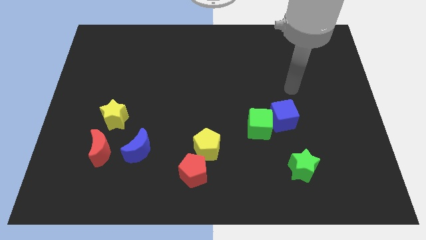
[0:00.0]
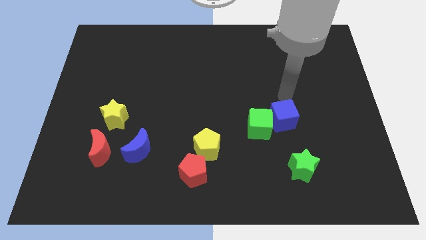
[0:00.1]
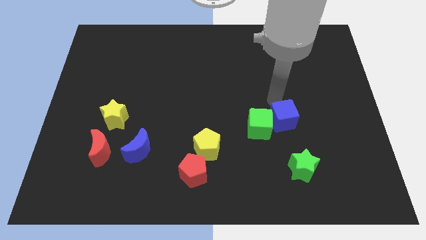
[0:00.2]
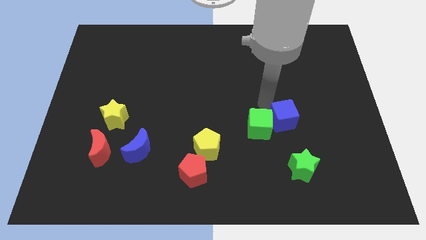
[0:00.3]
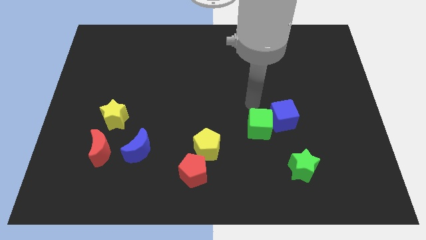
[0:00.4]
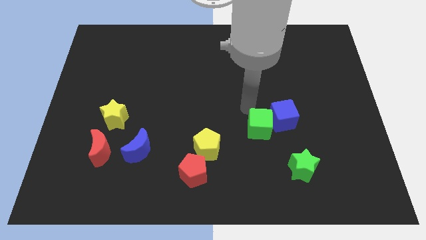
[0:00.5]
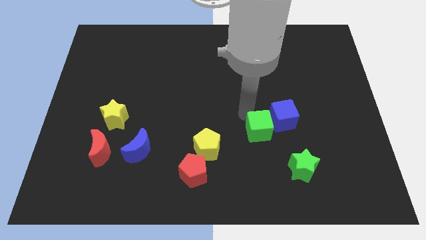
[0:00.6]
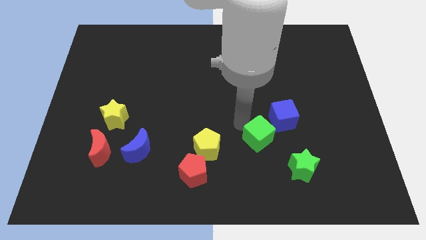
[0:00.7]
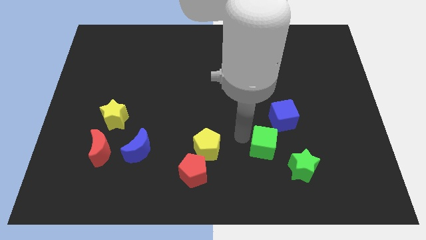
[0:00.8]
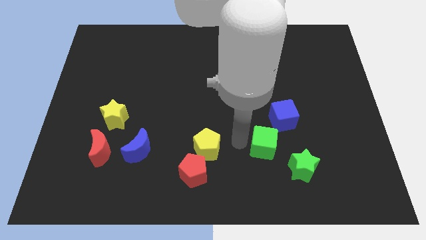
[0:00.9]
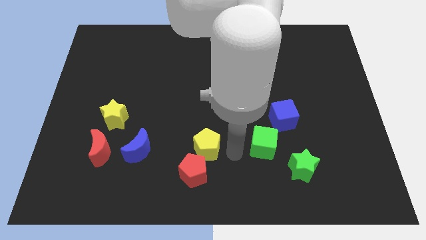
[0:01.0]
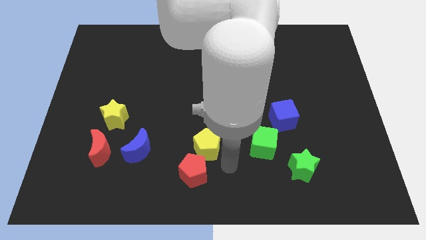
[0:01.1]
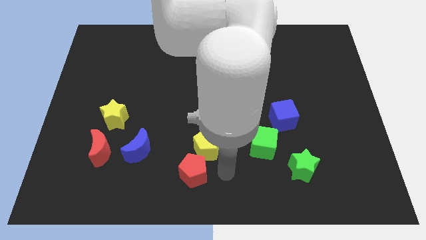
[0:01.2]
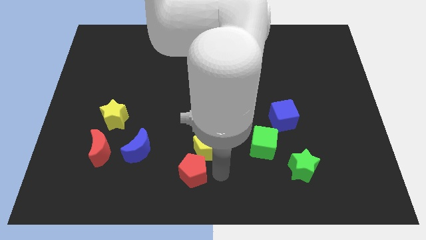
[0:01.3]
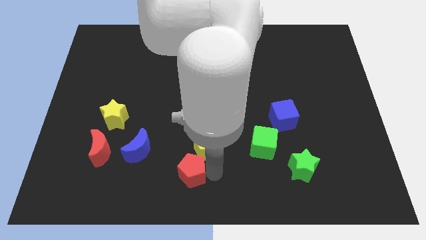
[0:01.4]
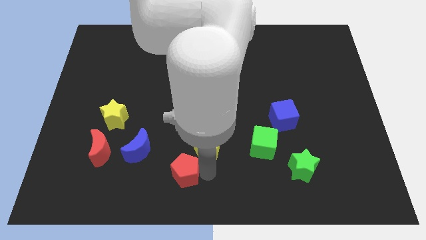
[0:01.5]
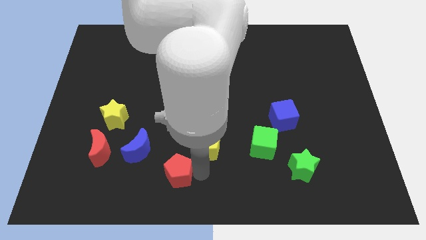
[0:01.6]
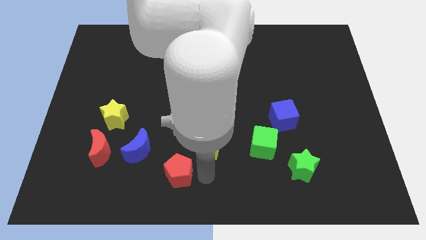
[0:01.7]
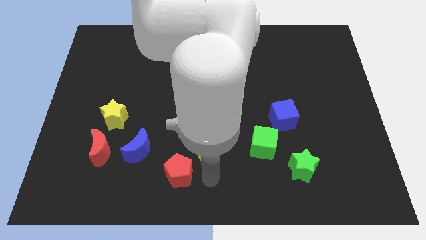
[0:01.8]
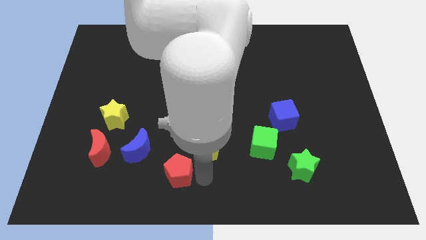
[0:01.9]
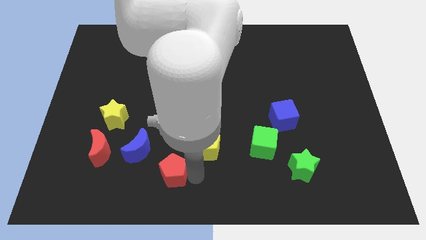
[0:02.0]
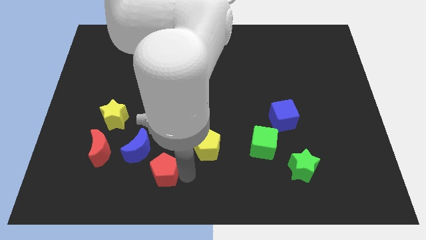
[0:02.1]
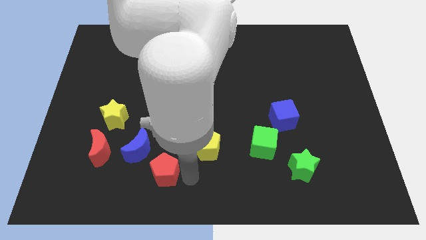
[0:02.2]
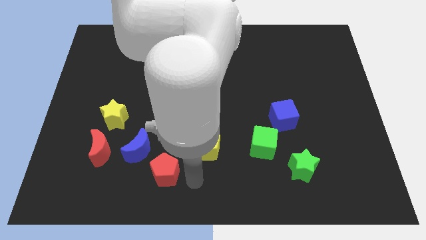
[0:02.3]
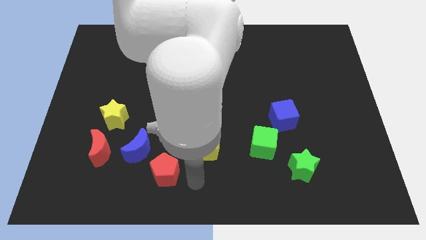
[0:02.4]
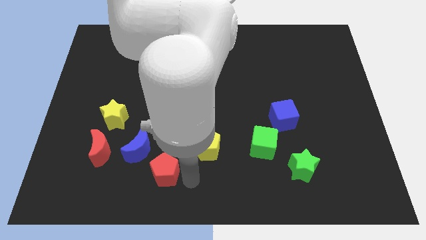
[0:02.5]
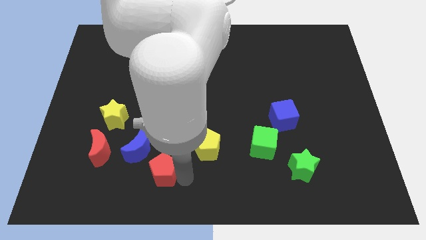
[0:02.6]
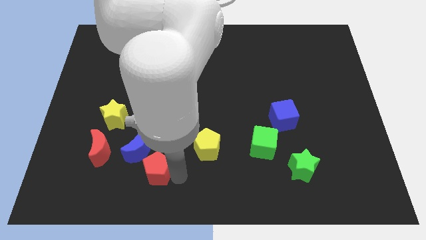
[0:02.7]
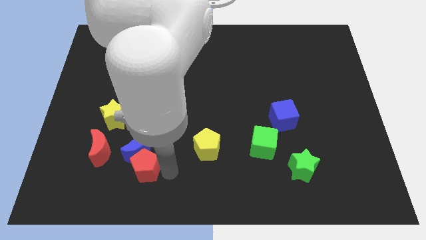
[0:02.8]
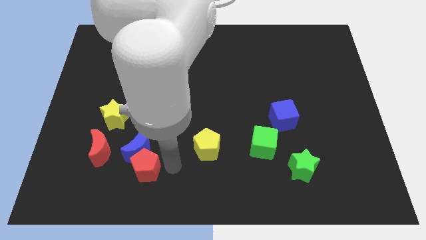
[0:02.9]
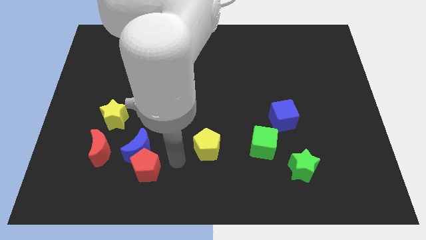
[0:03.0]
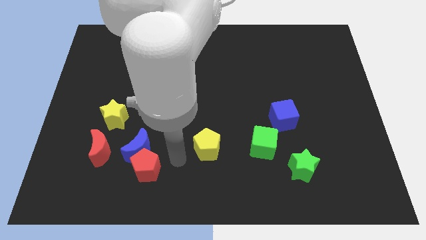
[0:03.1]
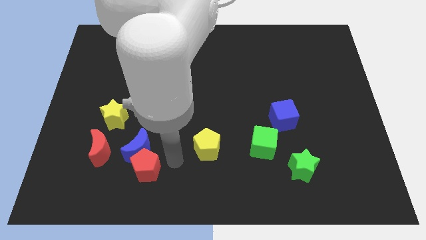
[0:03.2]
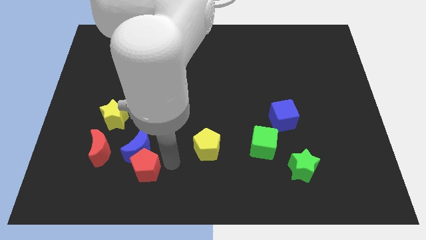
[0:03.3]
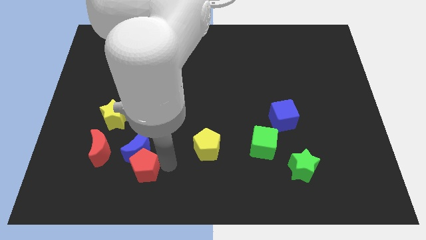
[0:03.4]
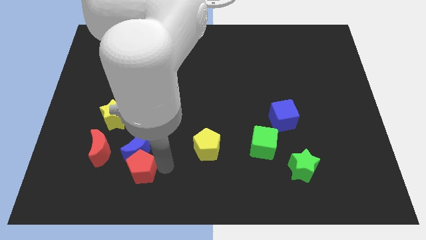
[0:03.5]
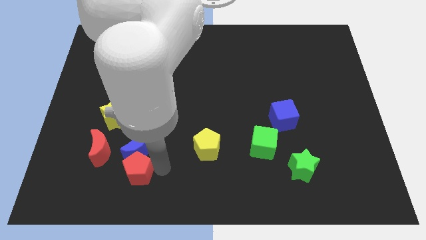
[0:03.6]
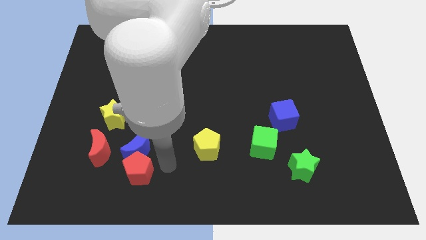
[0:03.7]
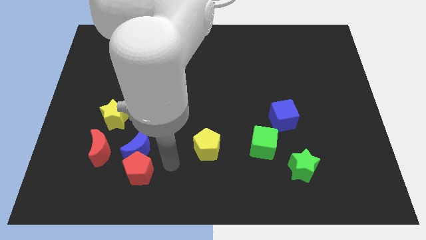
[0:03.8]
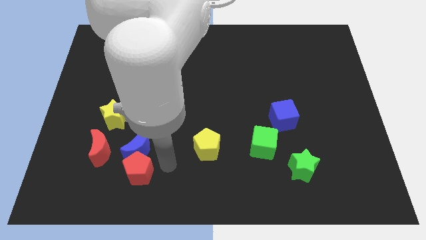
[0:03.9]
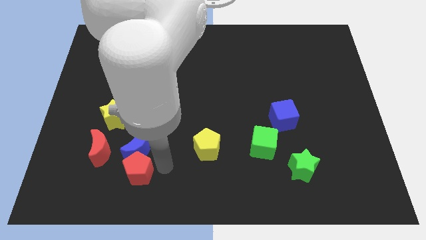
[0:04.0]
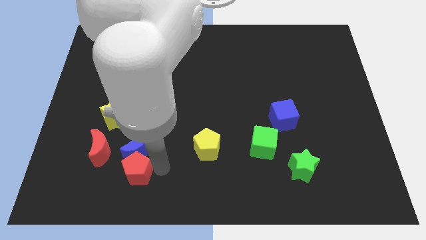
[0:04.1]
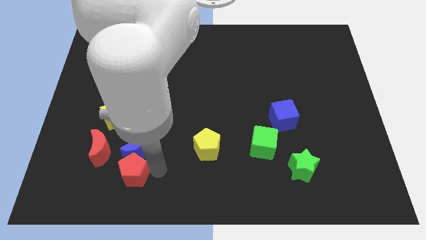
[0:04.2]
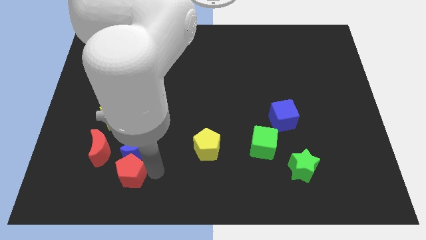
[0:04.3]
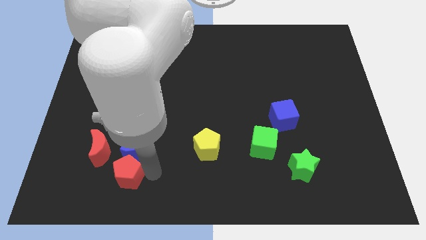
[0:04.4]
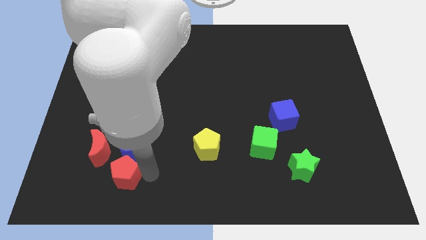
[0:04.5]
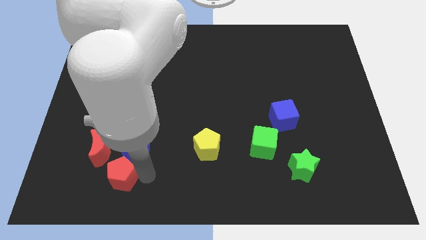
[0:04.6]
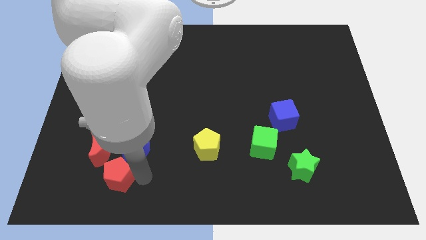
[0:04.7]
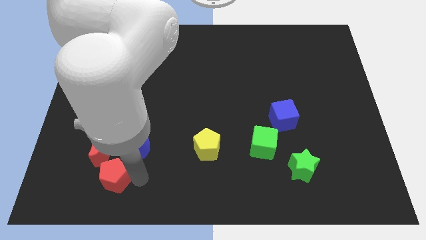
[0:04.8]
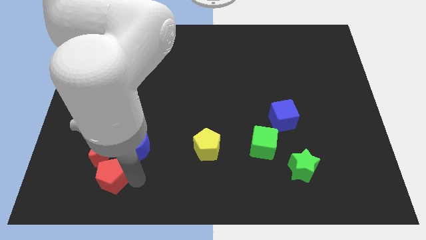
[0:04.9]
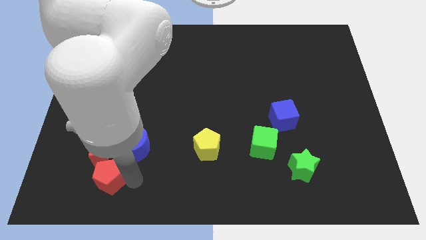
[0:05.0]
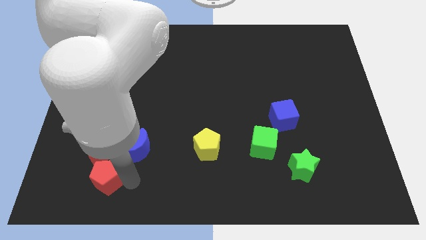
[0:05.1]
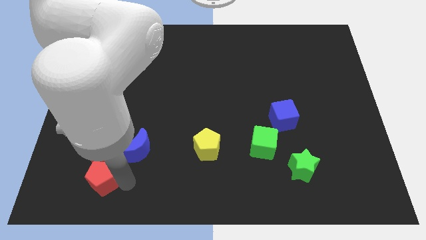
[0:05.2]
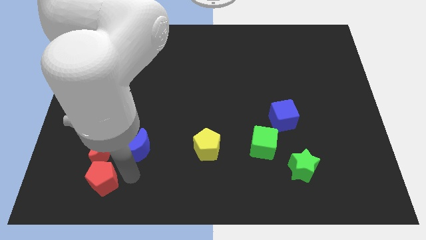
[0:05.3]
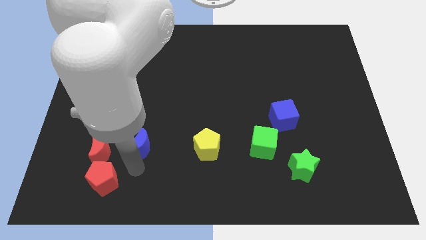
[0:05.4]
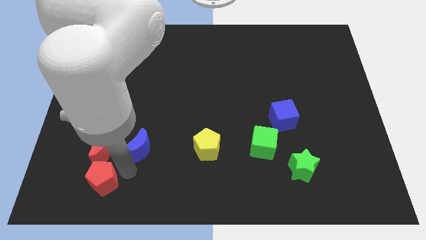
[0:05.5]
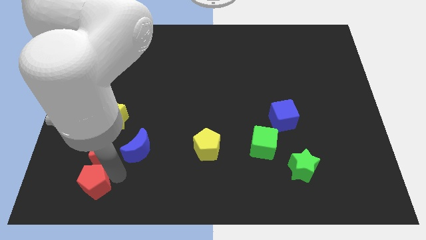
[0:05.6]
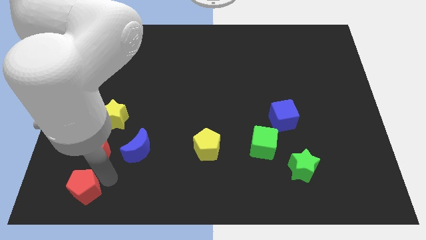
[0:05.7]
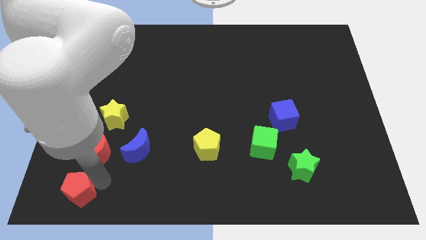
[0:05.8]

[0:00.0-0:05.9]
slide the red pentagon to the lower left corner
